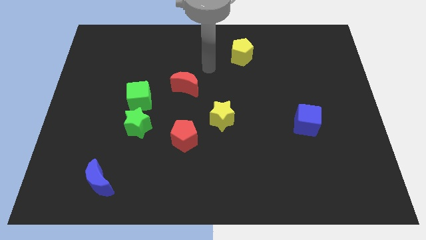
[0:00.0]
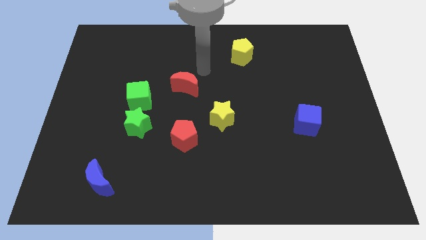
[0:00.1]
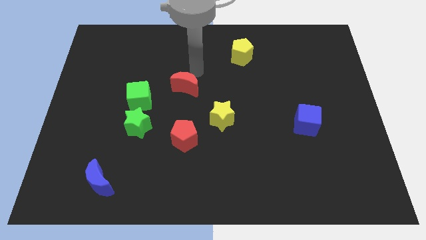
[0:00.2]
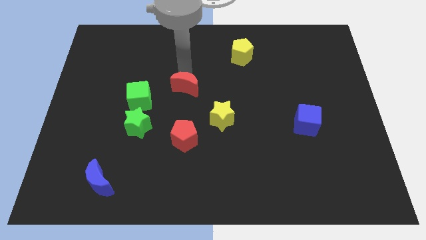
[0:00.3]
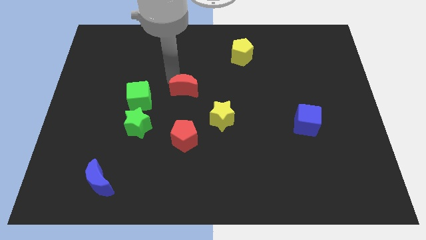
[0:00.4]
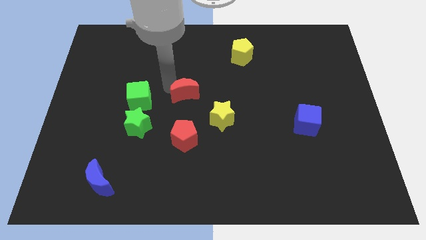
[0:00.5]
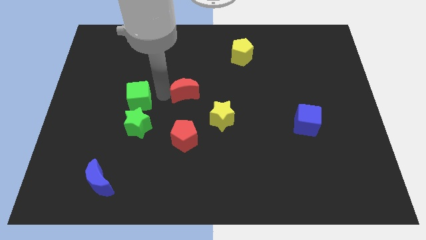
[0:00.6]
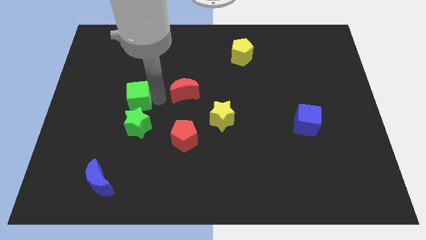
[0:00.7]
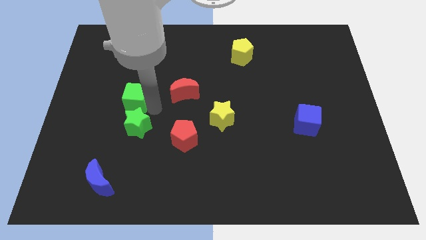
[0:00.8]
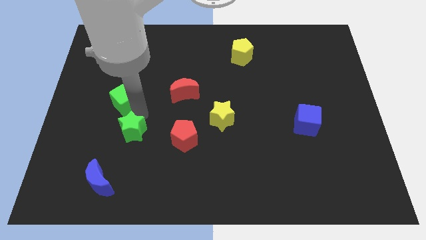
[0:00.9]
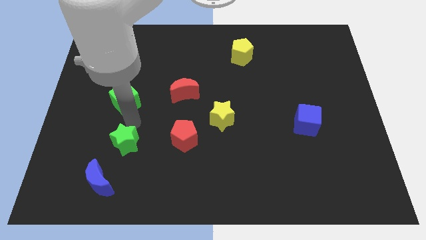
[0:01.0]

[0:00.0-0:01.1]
separate the green cube from the green star

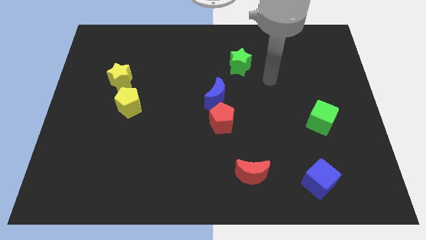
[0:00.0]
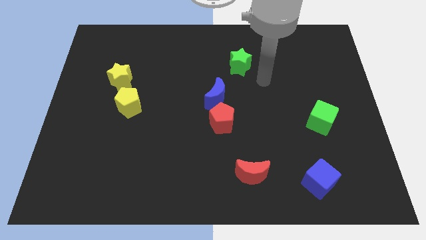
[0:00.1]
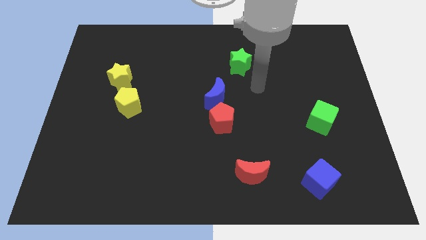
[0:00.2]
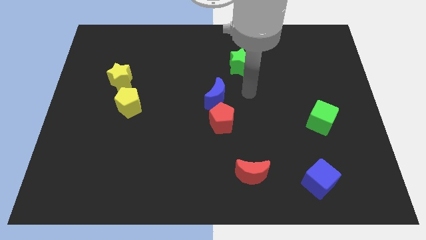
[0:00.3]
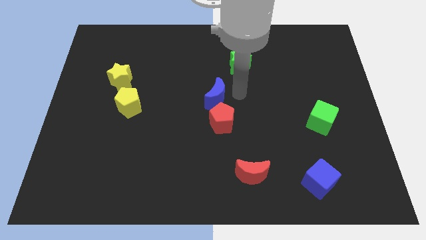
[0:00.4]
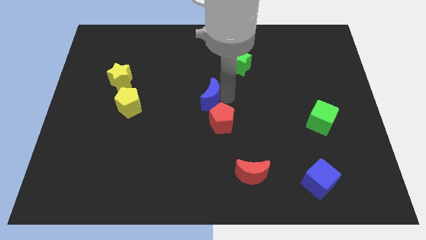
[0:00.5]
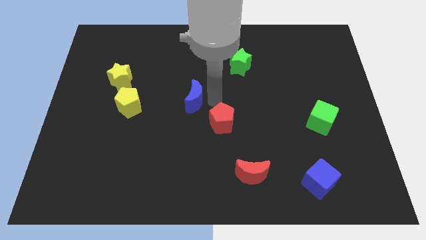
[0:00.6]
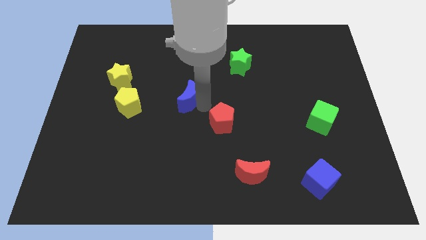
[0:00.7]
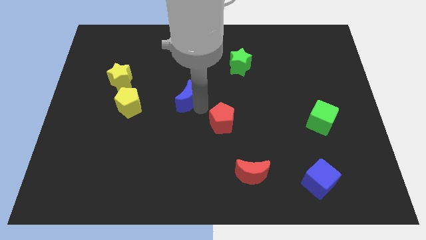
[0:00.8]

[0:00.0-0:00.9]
pull the red pentagon apart from the blue moon

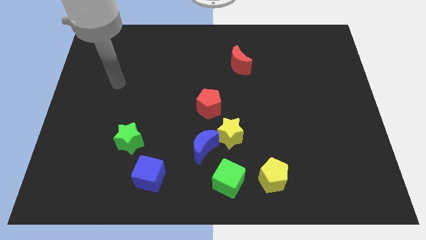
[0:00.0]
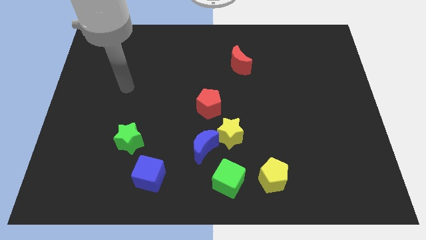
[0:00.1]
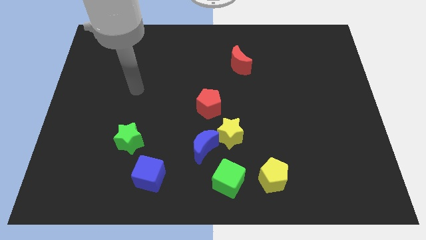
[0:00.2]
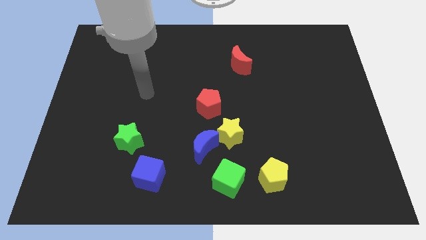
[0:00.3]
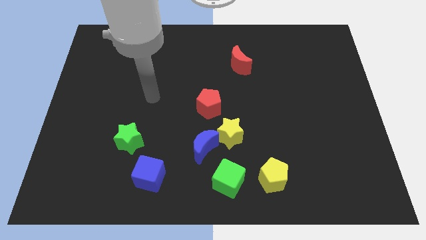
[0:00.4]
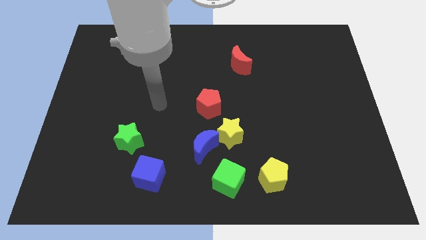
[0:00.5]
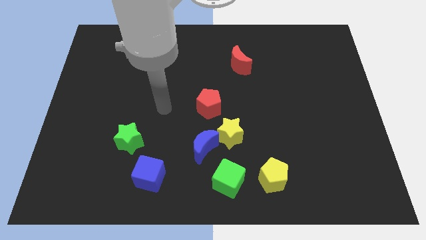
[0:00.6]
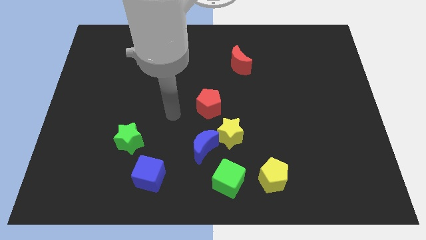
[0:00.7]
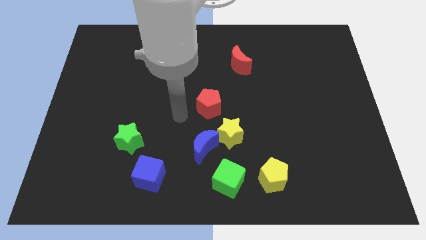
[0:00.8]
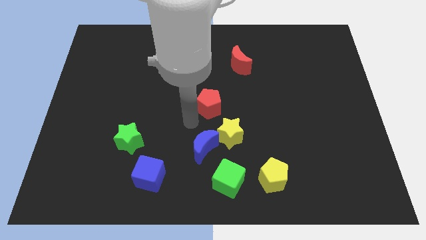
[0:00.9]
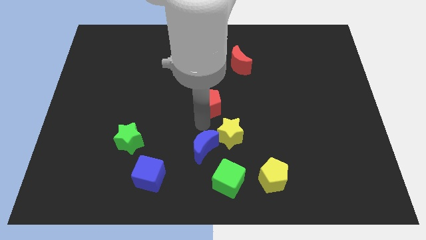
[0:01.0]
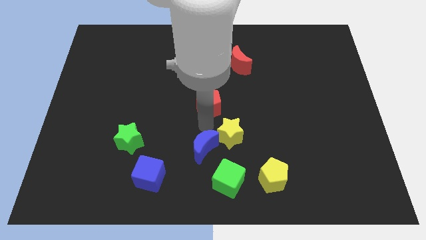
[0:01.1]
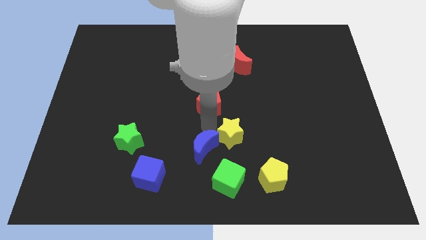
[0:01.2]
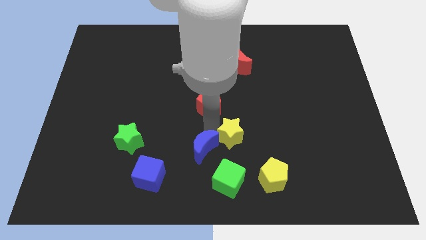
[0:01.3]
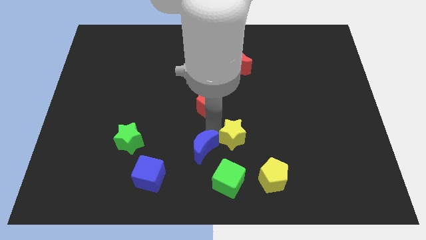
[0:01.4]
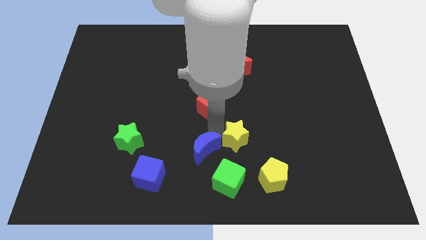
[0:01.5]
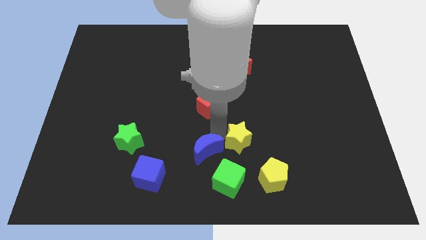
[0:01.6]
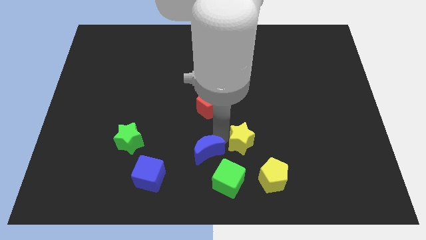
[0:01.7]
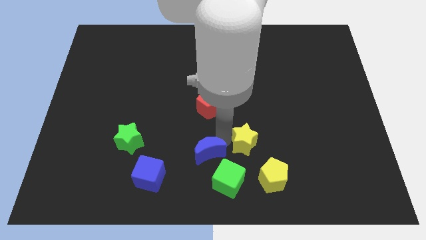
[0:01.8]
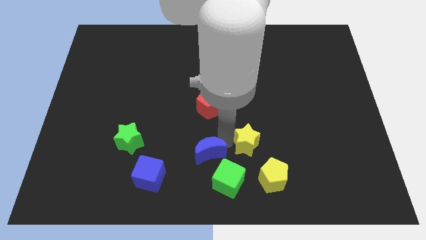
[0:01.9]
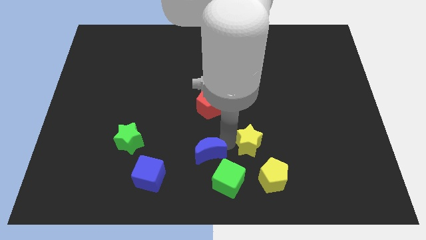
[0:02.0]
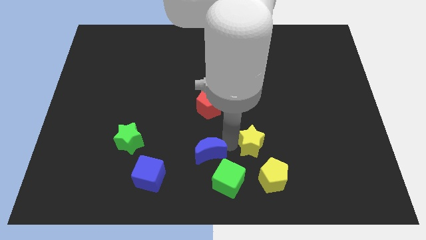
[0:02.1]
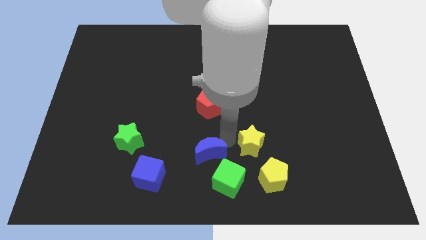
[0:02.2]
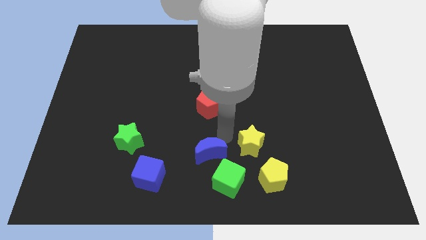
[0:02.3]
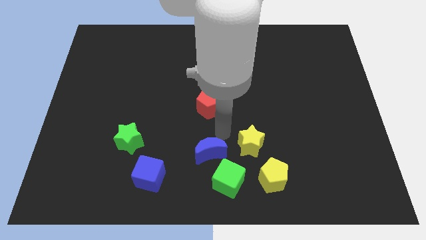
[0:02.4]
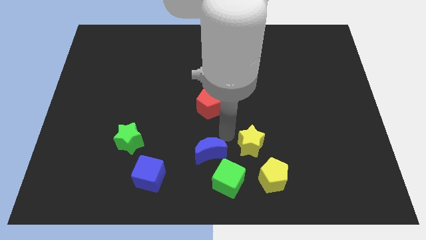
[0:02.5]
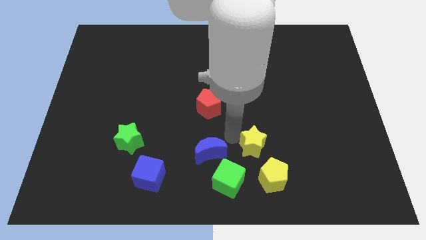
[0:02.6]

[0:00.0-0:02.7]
move the yellow star away from the blue moon and red pentagon

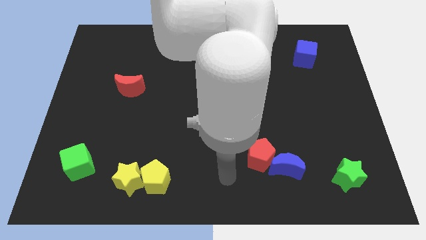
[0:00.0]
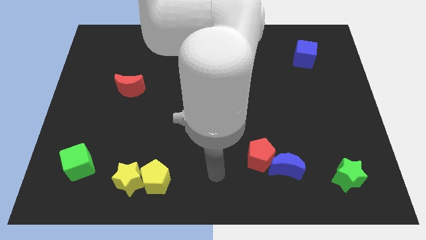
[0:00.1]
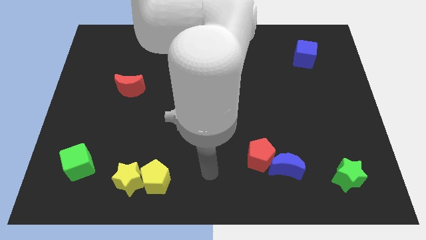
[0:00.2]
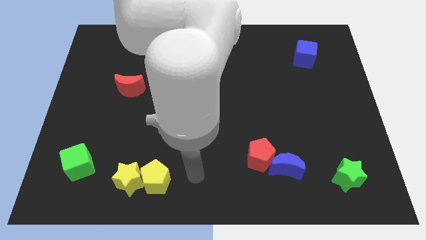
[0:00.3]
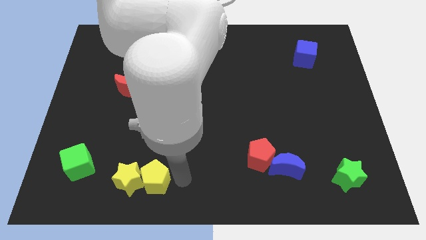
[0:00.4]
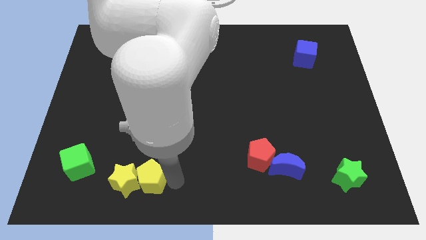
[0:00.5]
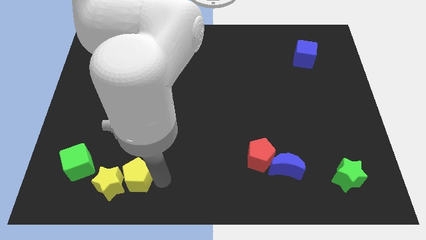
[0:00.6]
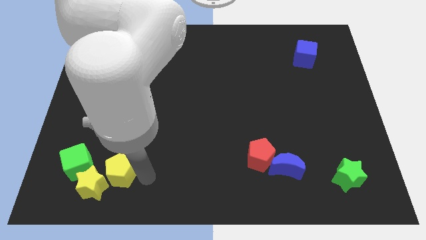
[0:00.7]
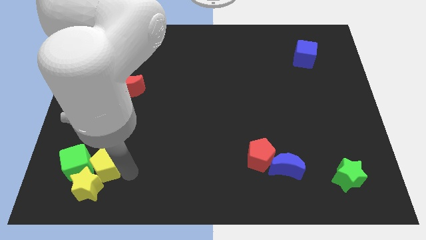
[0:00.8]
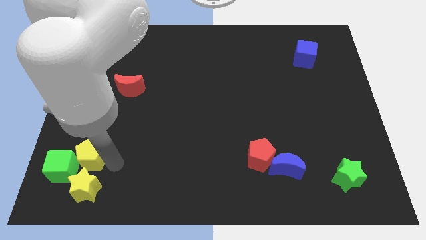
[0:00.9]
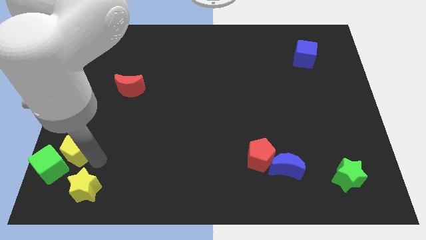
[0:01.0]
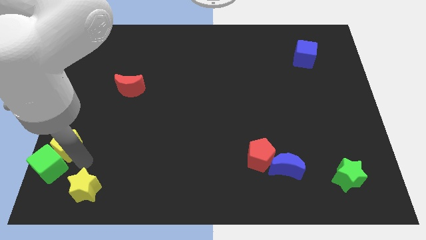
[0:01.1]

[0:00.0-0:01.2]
move the yellow star away from the yellow pentagon

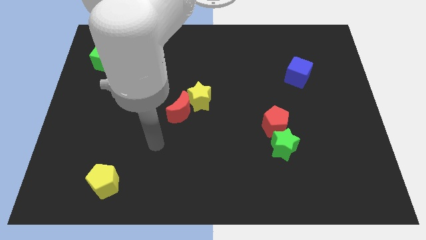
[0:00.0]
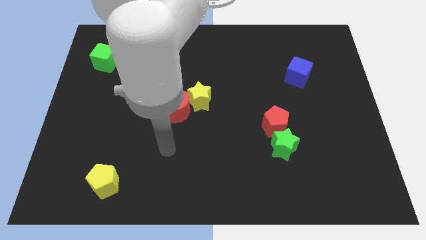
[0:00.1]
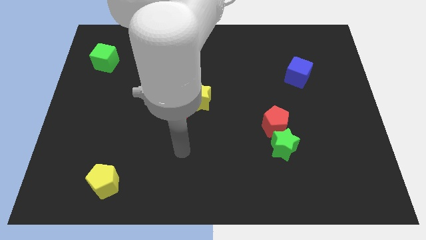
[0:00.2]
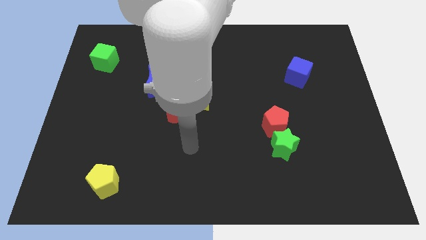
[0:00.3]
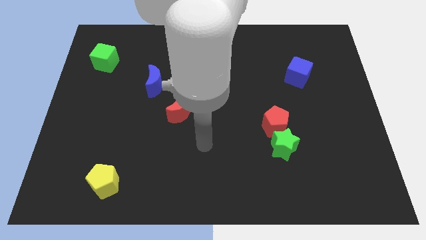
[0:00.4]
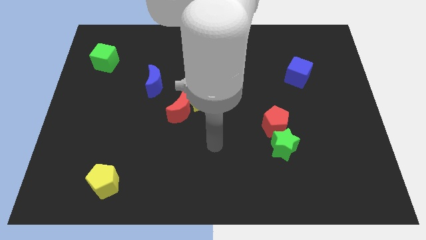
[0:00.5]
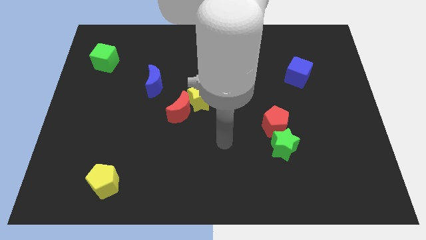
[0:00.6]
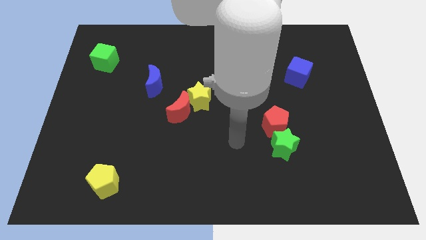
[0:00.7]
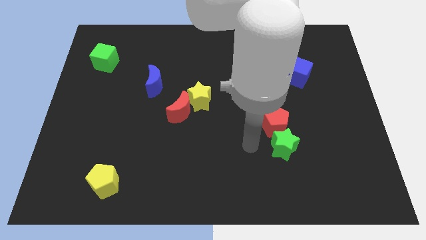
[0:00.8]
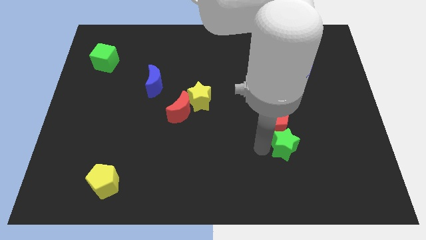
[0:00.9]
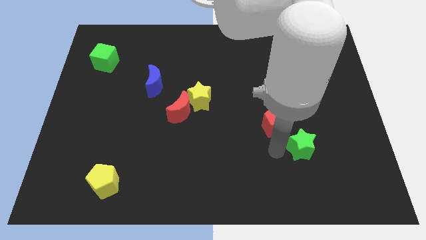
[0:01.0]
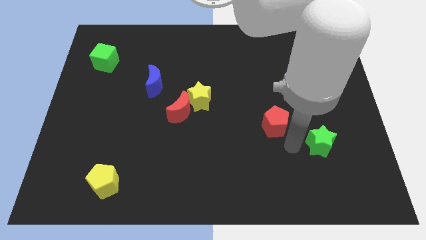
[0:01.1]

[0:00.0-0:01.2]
separate the red pentagon from the green star

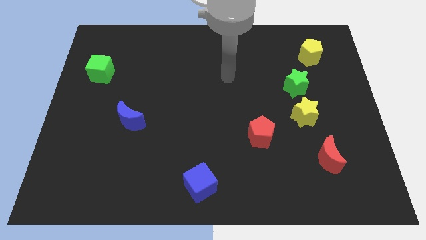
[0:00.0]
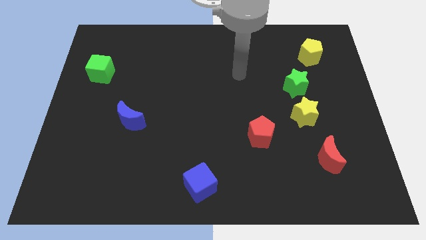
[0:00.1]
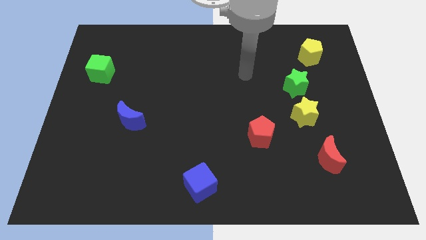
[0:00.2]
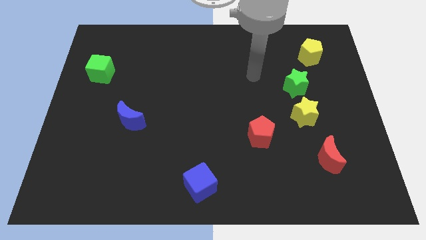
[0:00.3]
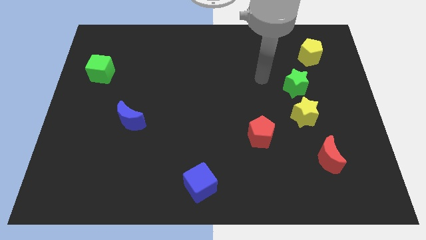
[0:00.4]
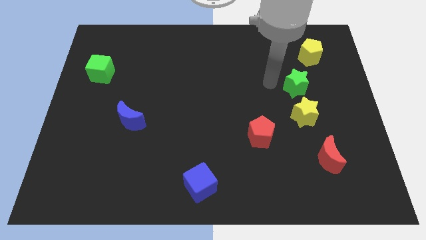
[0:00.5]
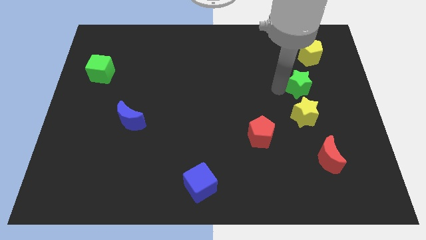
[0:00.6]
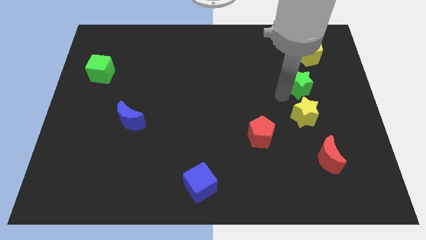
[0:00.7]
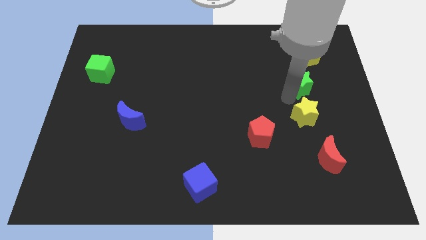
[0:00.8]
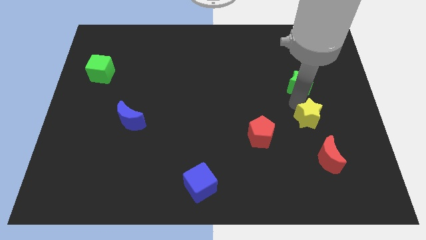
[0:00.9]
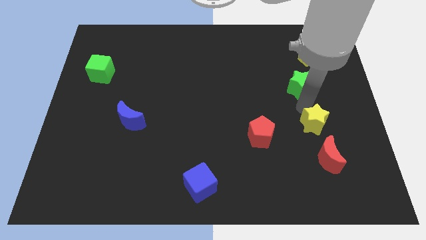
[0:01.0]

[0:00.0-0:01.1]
separate the green star from the yellow star

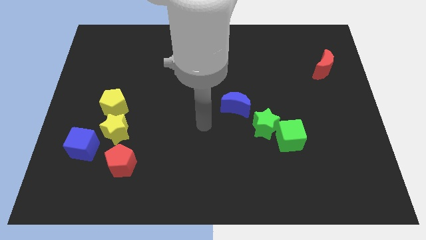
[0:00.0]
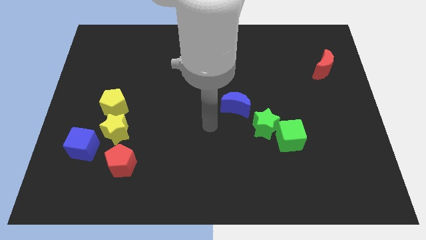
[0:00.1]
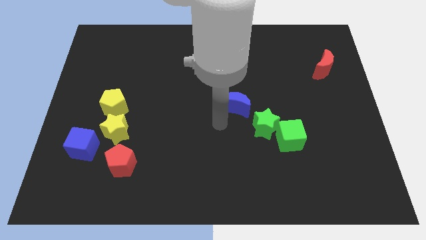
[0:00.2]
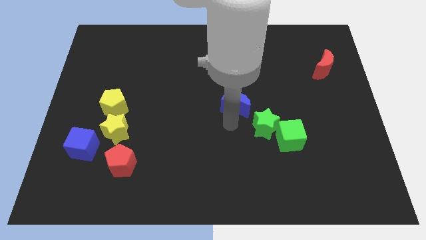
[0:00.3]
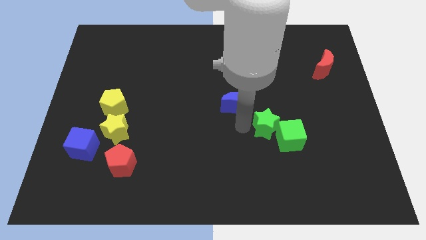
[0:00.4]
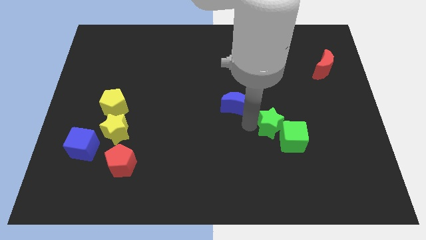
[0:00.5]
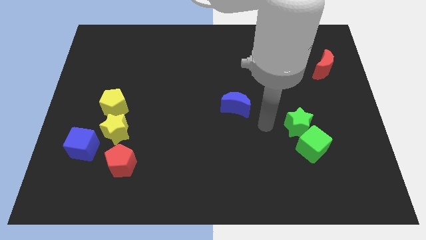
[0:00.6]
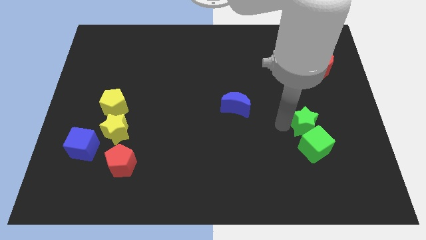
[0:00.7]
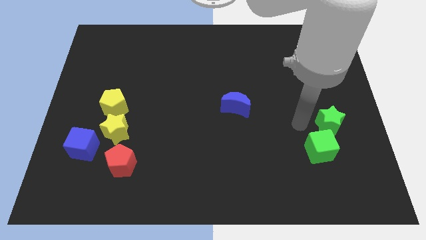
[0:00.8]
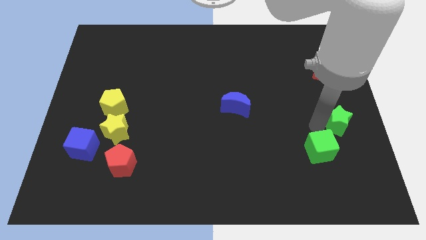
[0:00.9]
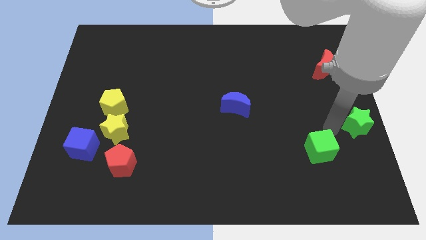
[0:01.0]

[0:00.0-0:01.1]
move the green cube away from the green star
